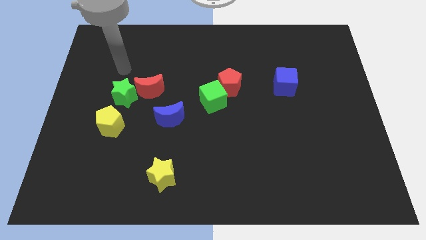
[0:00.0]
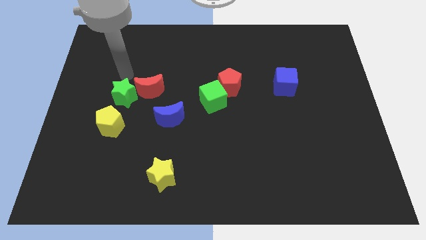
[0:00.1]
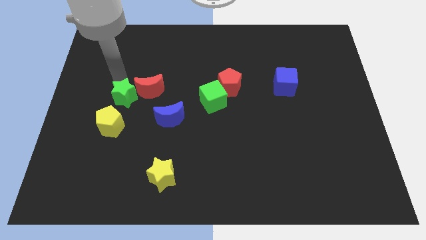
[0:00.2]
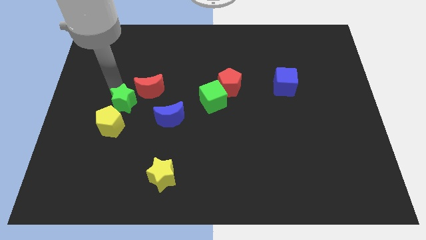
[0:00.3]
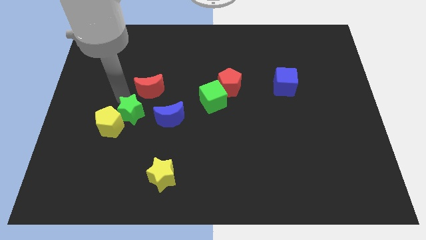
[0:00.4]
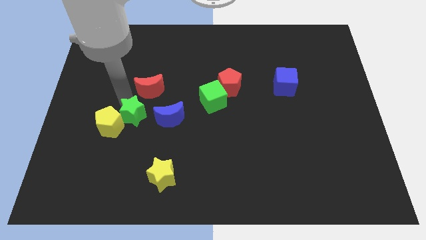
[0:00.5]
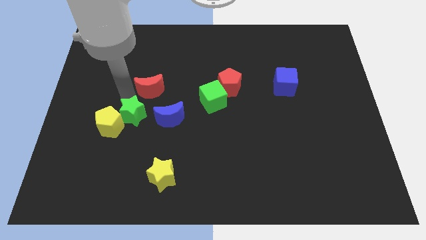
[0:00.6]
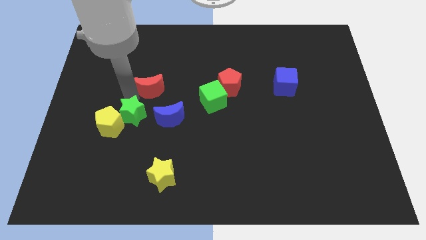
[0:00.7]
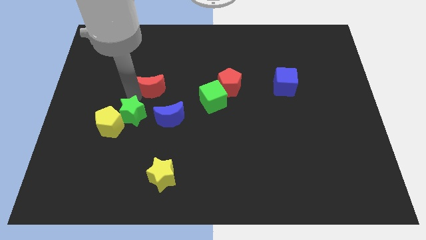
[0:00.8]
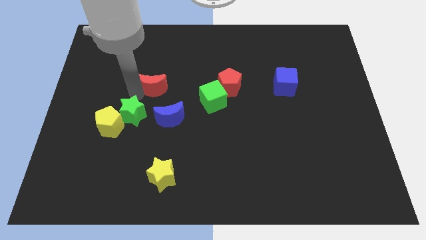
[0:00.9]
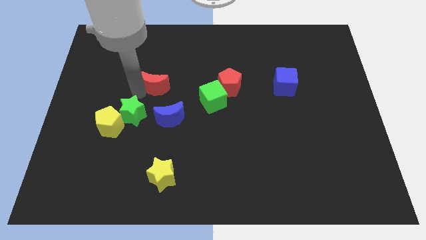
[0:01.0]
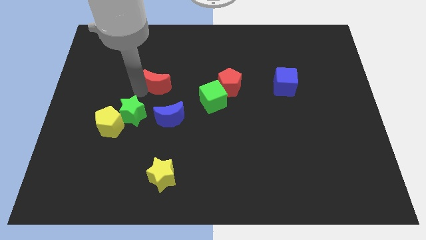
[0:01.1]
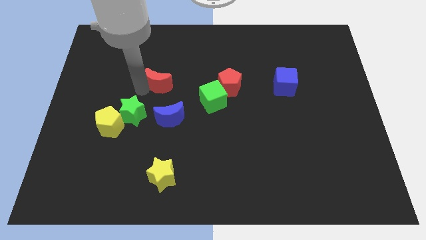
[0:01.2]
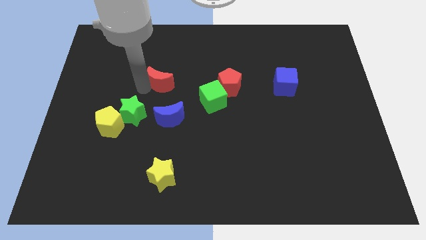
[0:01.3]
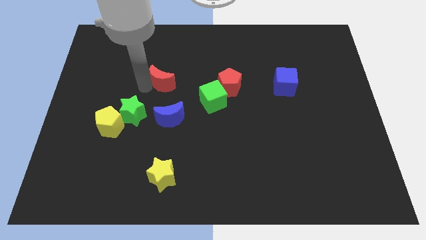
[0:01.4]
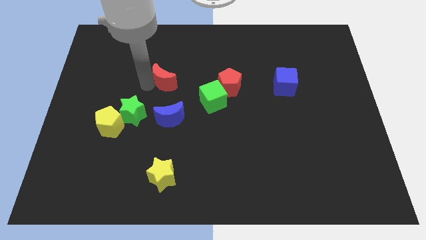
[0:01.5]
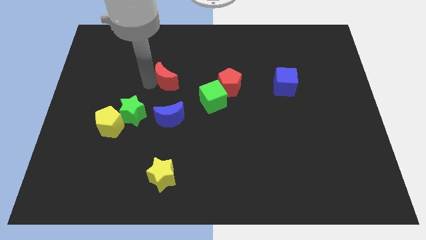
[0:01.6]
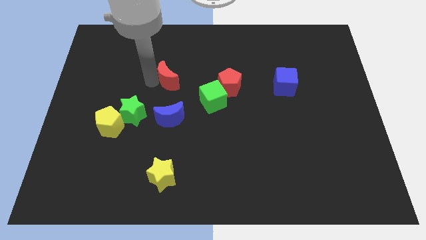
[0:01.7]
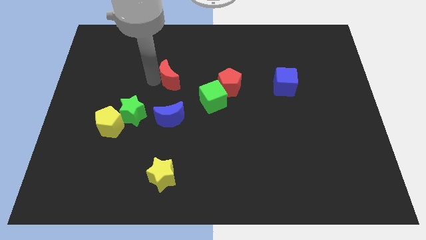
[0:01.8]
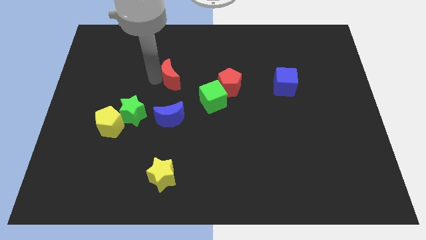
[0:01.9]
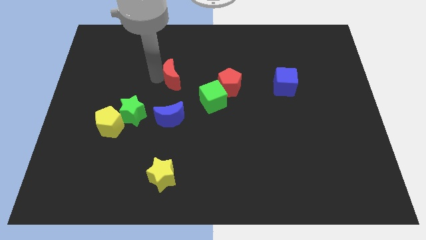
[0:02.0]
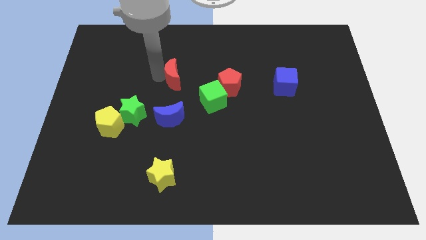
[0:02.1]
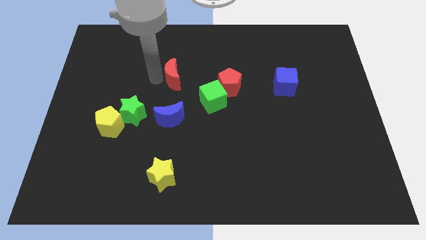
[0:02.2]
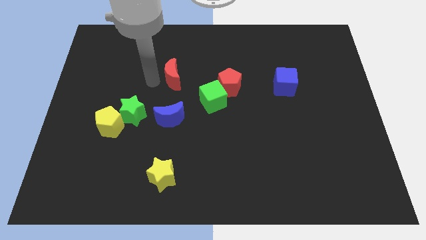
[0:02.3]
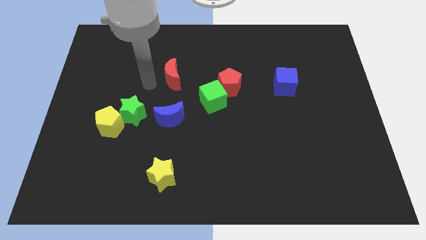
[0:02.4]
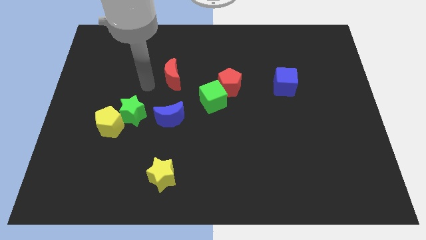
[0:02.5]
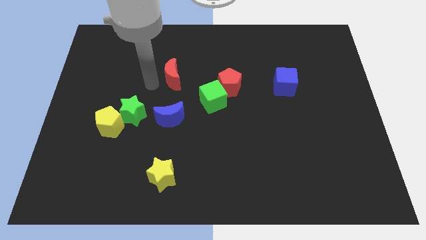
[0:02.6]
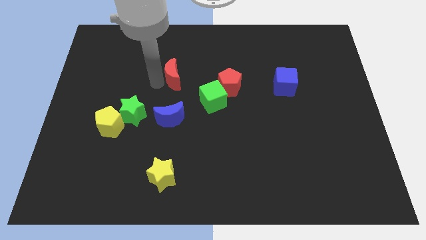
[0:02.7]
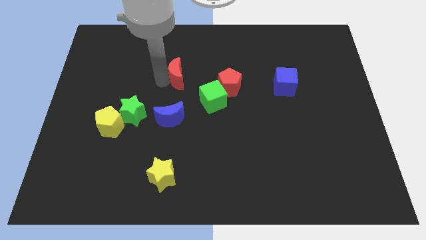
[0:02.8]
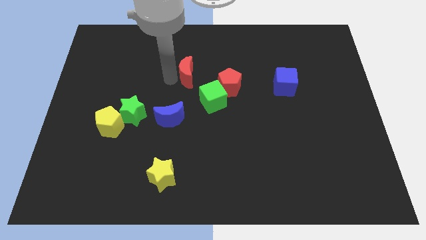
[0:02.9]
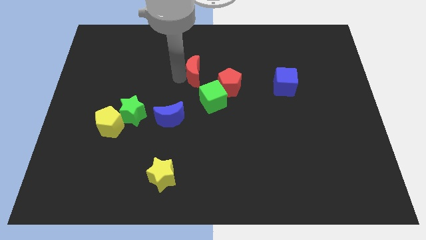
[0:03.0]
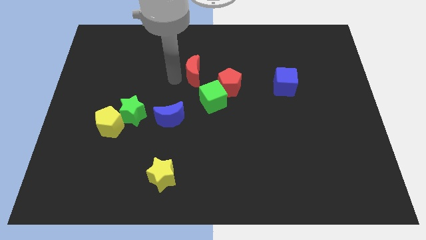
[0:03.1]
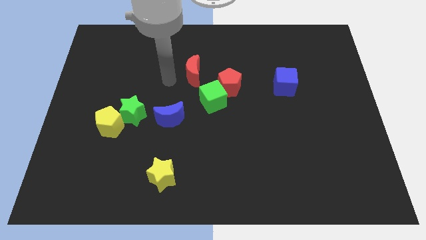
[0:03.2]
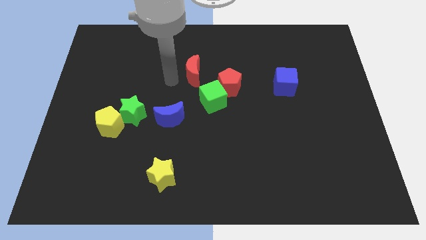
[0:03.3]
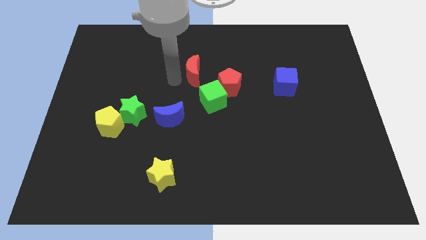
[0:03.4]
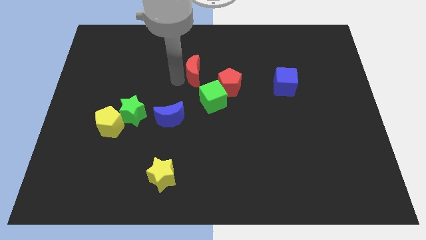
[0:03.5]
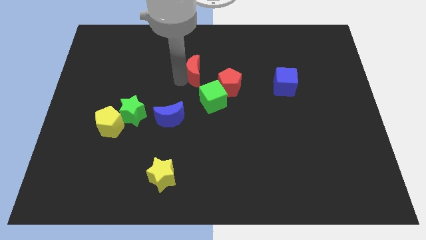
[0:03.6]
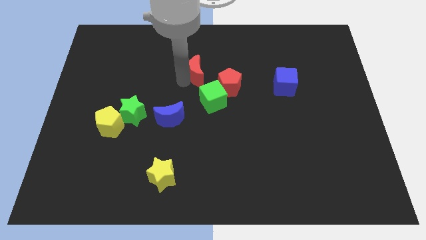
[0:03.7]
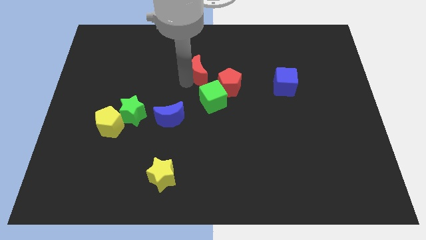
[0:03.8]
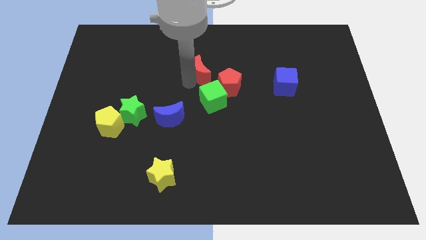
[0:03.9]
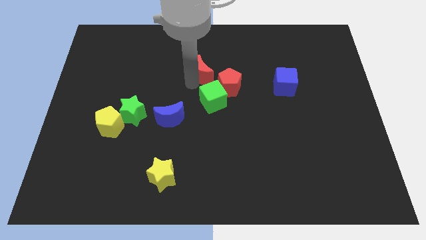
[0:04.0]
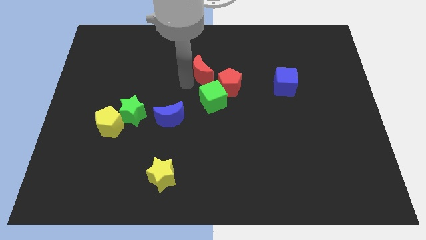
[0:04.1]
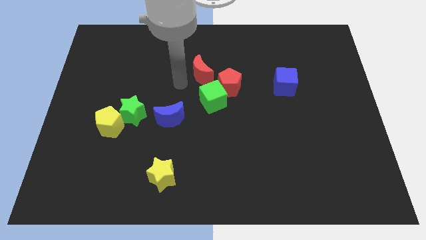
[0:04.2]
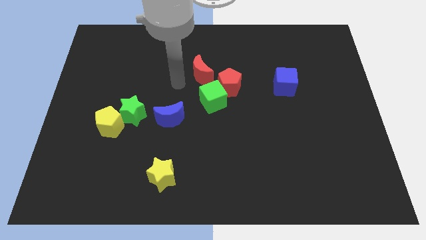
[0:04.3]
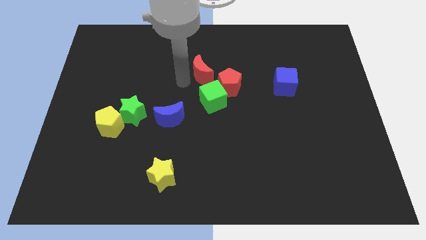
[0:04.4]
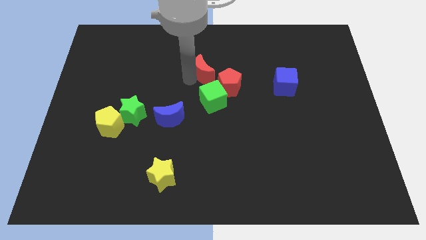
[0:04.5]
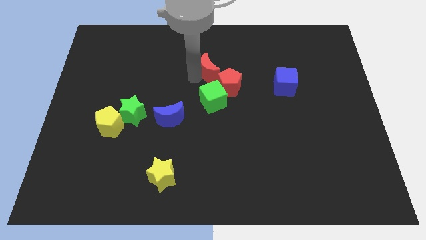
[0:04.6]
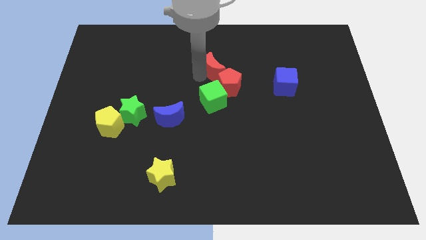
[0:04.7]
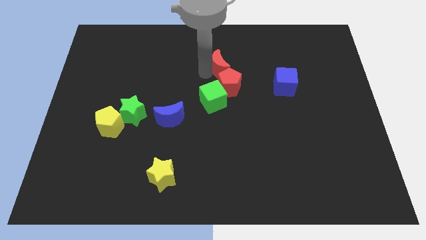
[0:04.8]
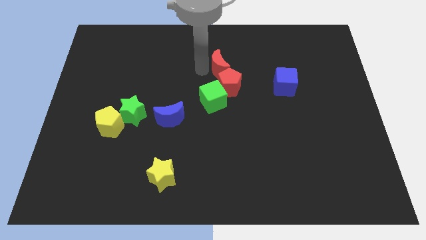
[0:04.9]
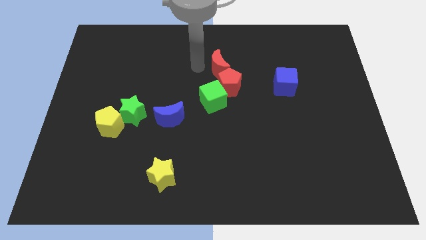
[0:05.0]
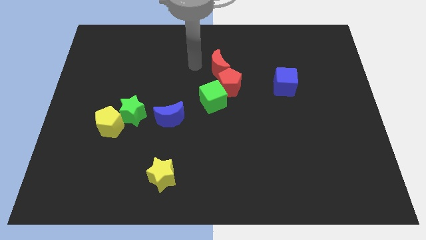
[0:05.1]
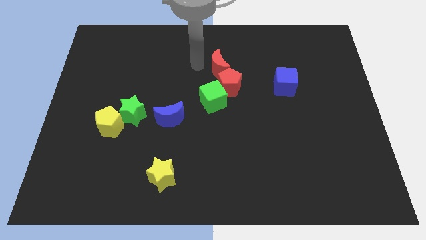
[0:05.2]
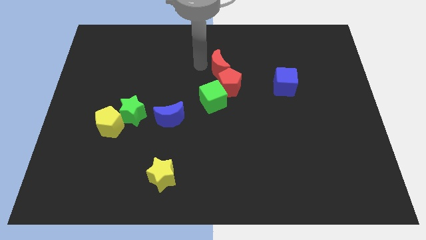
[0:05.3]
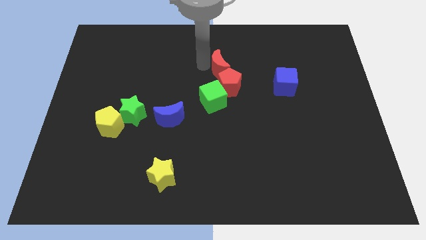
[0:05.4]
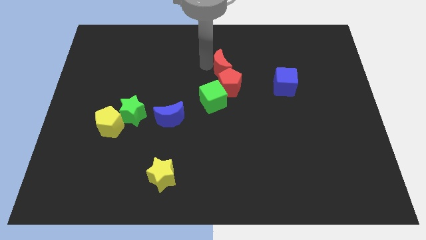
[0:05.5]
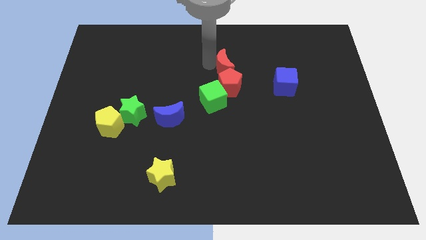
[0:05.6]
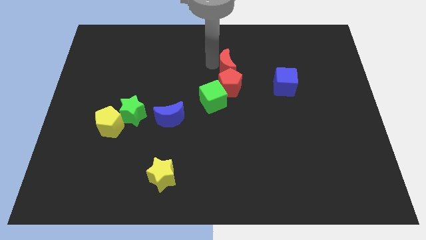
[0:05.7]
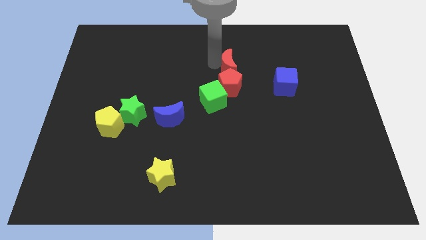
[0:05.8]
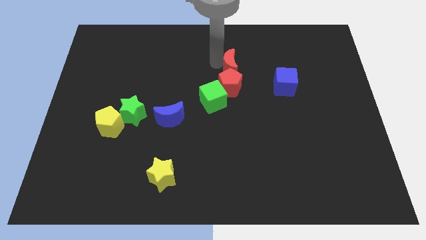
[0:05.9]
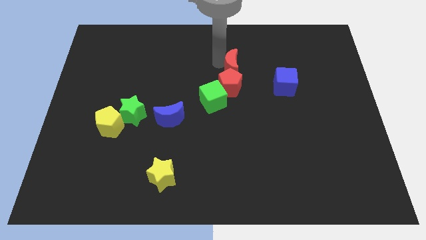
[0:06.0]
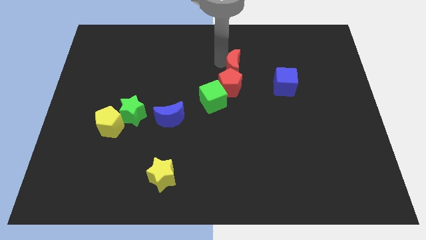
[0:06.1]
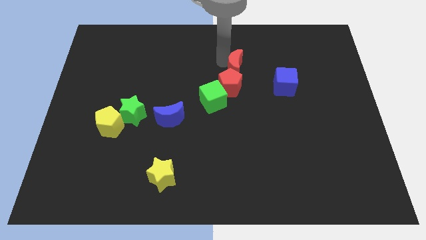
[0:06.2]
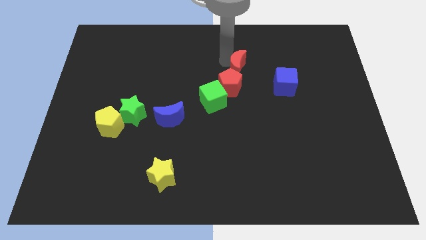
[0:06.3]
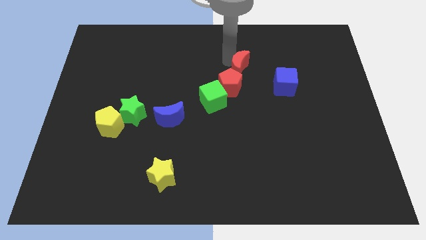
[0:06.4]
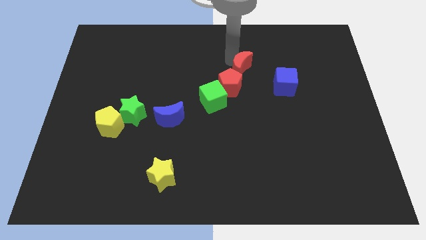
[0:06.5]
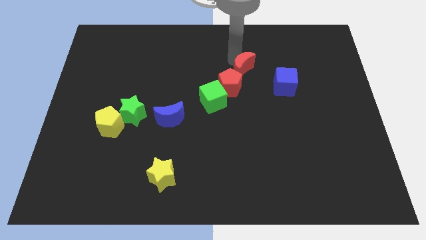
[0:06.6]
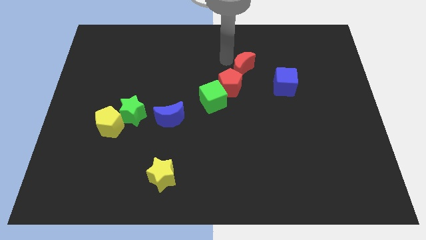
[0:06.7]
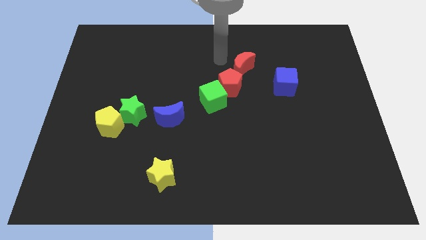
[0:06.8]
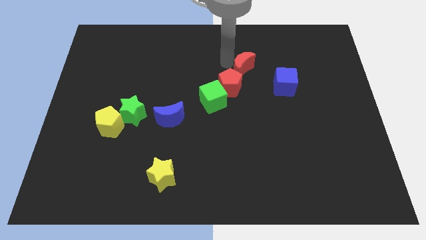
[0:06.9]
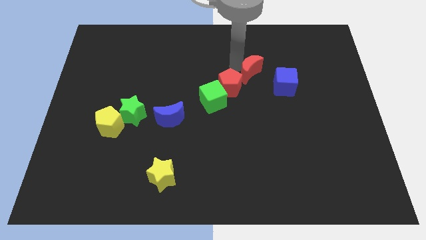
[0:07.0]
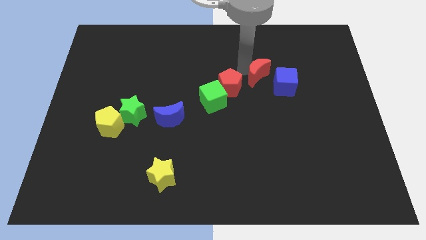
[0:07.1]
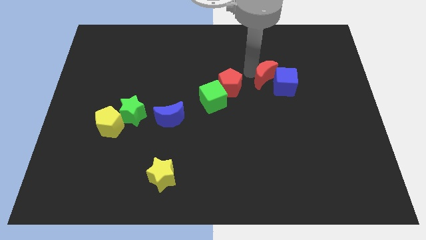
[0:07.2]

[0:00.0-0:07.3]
push the red moon close to the blue cube
